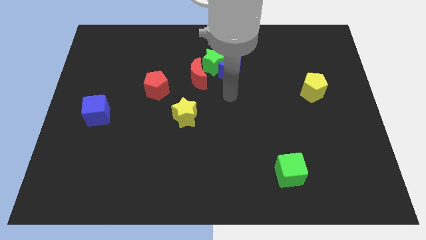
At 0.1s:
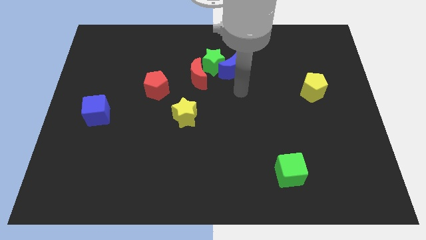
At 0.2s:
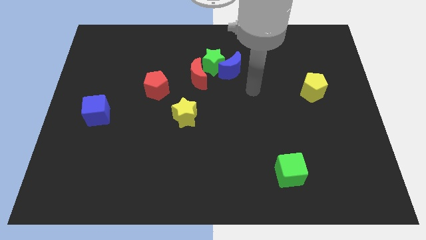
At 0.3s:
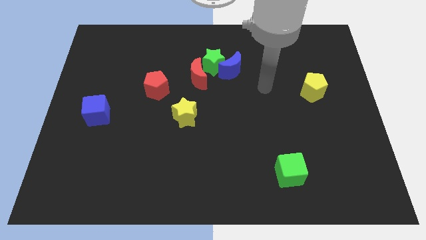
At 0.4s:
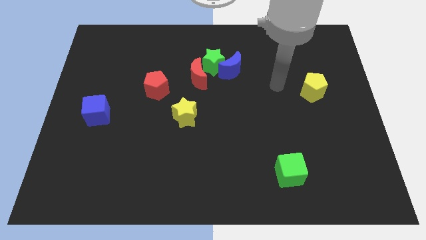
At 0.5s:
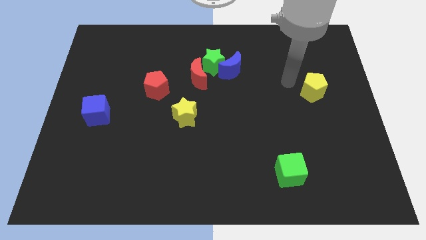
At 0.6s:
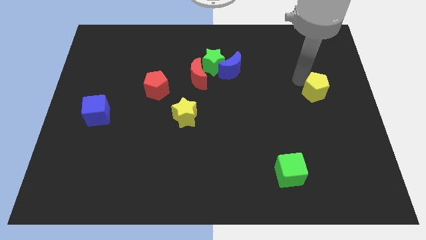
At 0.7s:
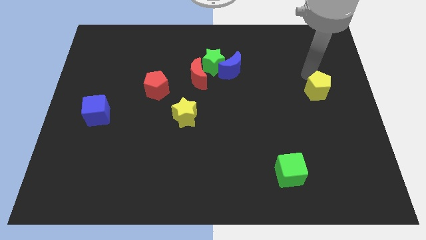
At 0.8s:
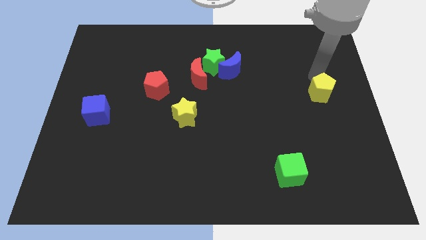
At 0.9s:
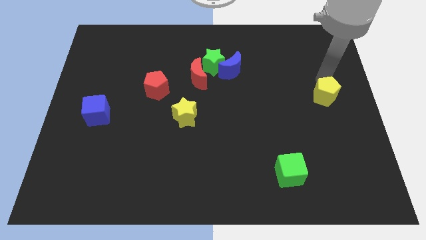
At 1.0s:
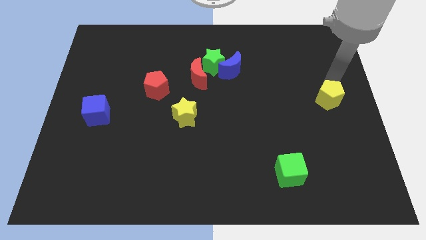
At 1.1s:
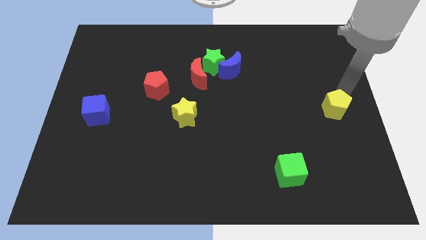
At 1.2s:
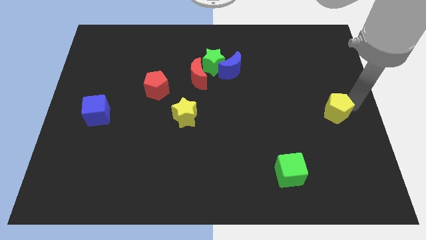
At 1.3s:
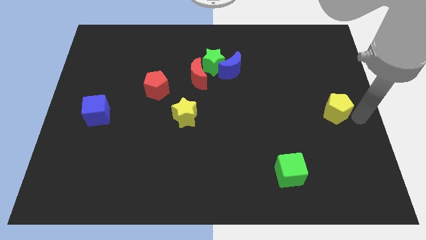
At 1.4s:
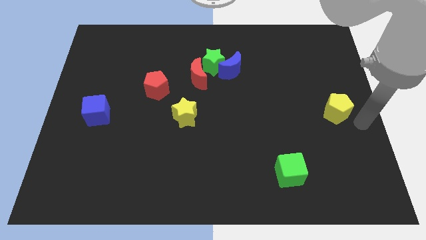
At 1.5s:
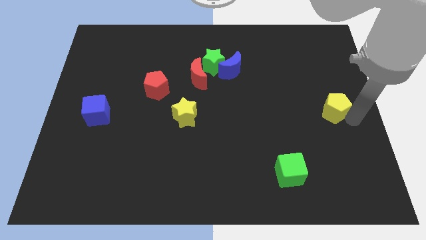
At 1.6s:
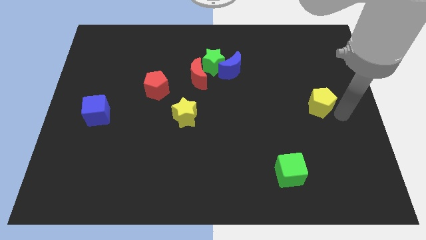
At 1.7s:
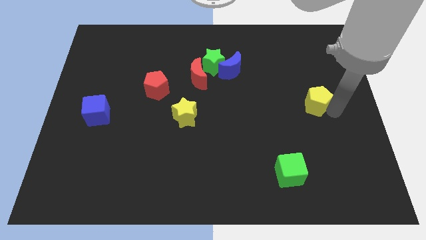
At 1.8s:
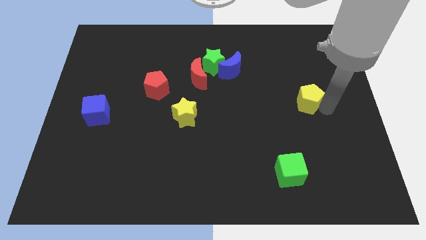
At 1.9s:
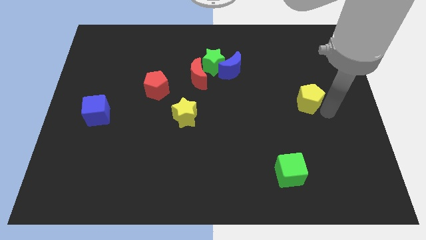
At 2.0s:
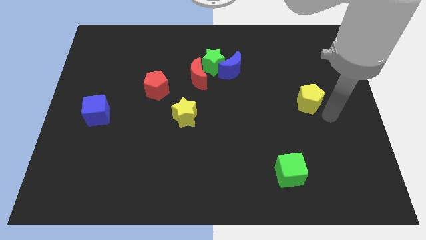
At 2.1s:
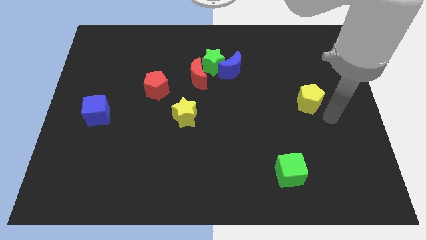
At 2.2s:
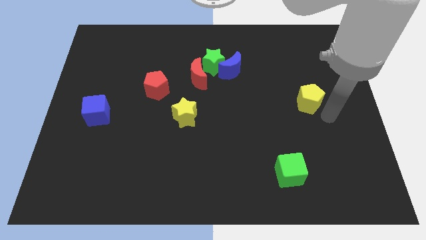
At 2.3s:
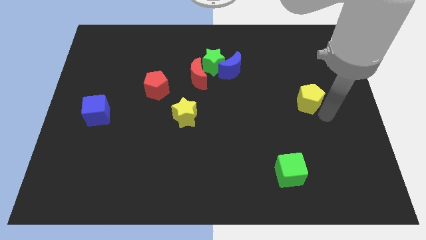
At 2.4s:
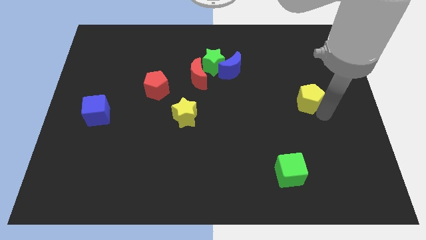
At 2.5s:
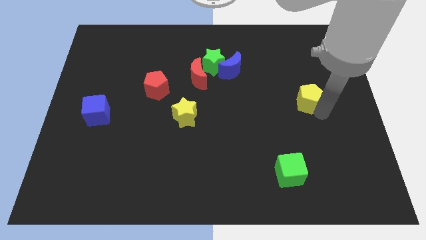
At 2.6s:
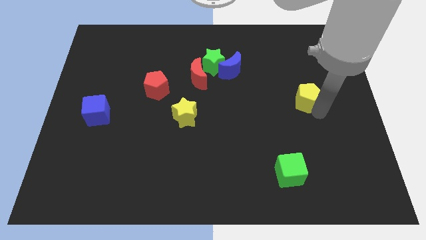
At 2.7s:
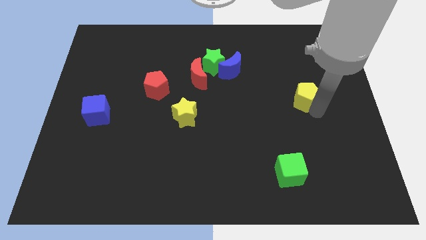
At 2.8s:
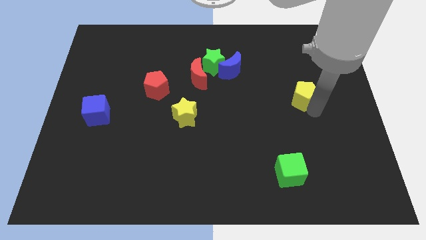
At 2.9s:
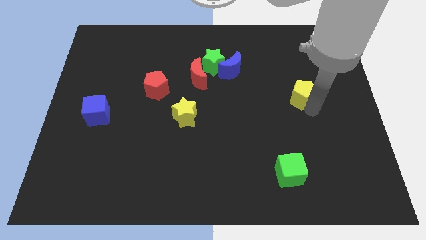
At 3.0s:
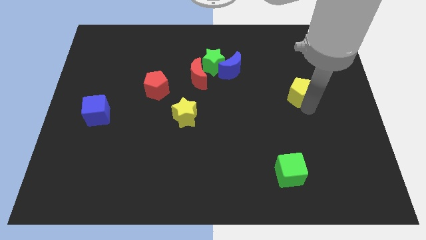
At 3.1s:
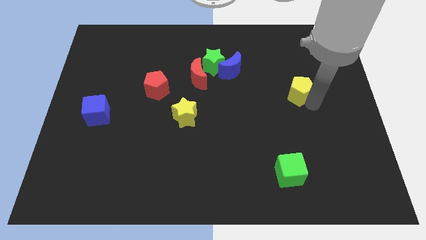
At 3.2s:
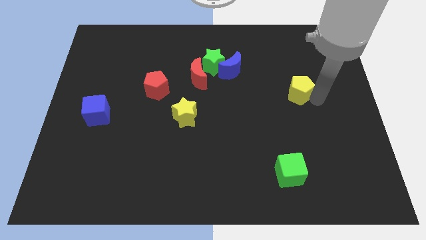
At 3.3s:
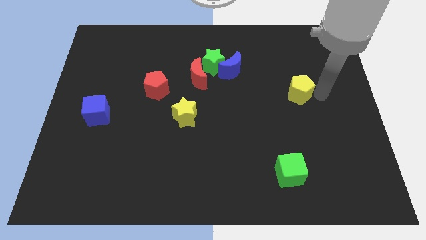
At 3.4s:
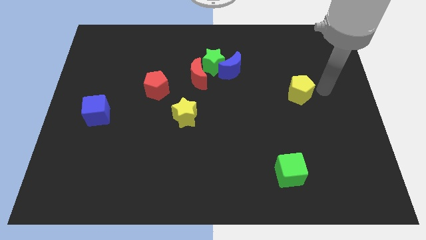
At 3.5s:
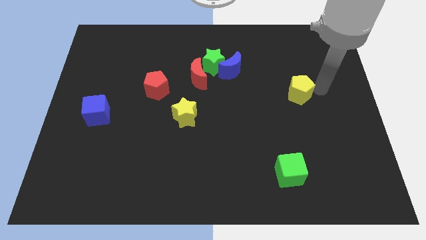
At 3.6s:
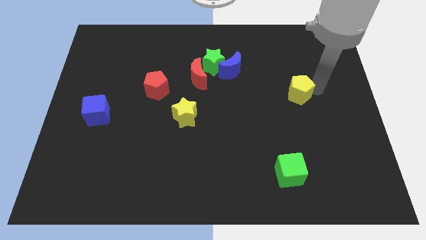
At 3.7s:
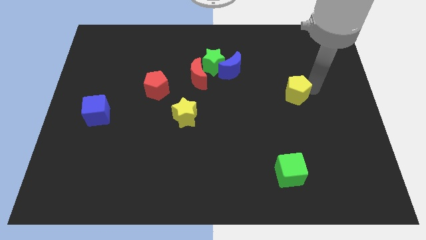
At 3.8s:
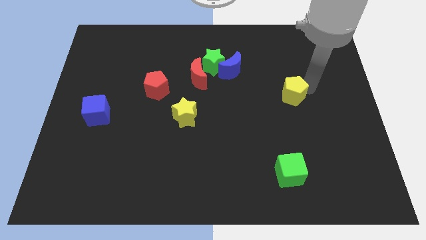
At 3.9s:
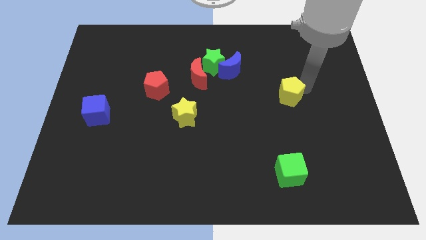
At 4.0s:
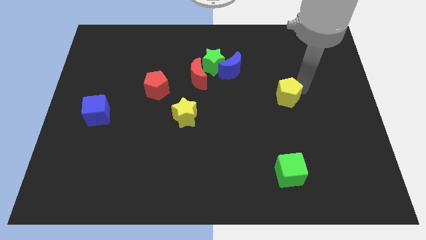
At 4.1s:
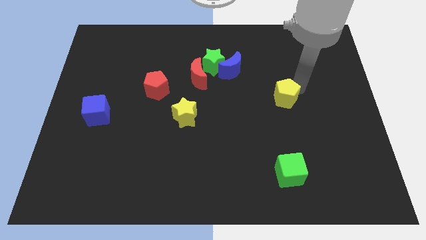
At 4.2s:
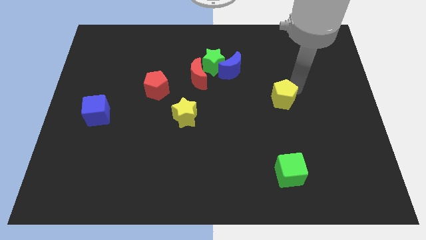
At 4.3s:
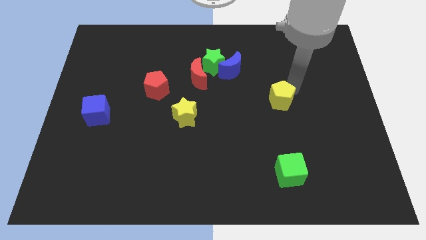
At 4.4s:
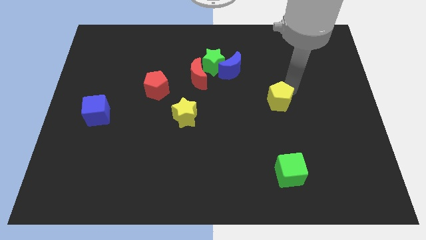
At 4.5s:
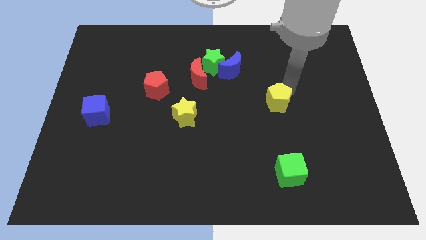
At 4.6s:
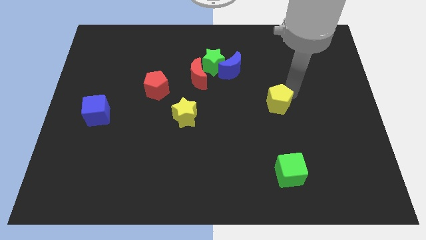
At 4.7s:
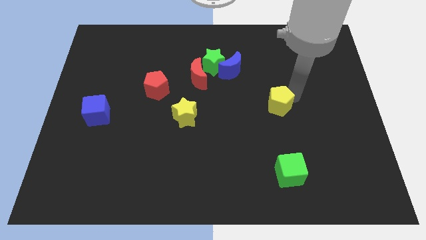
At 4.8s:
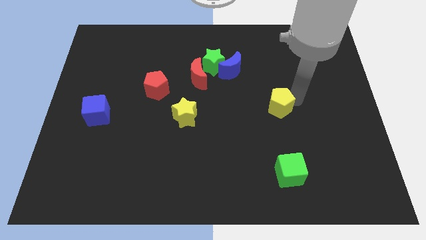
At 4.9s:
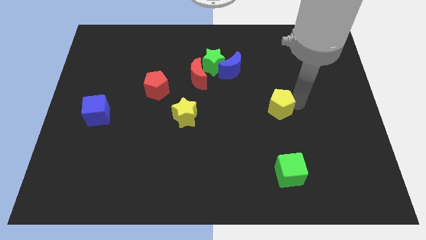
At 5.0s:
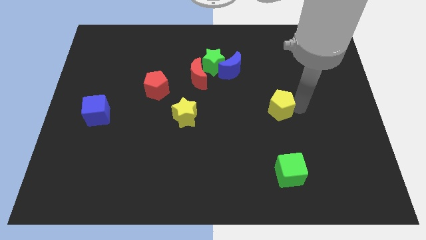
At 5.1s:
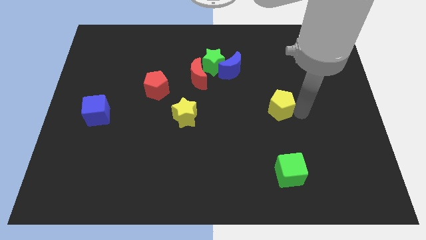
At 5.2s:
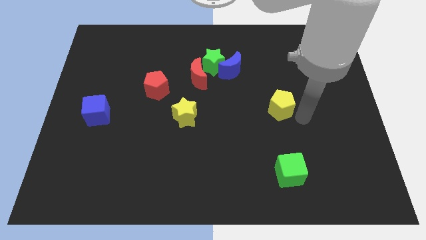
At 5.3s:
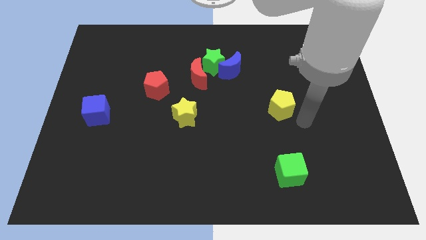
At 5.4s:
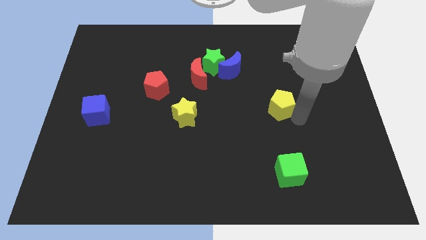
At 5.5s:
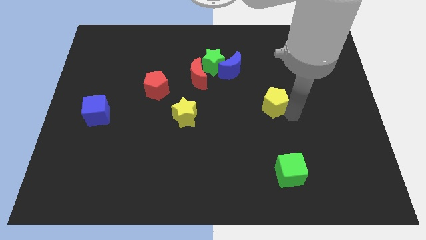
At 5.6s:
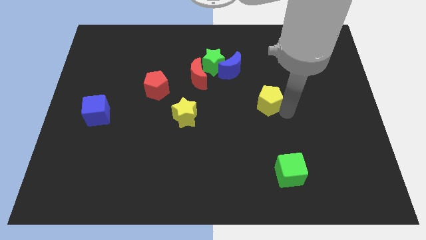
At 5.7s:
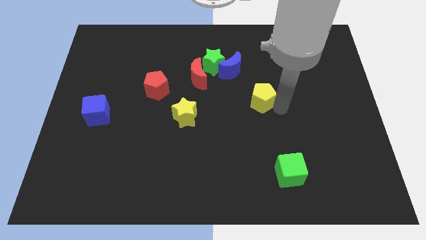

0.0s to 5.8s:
move the yellow pentagon to the center of the board

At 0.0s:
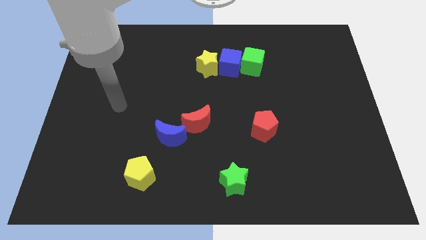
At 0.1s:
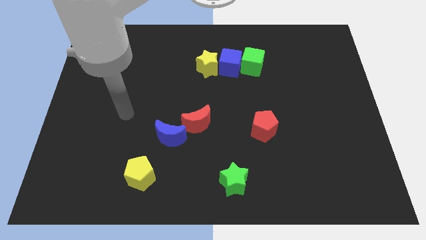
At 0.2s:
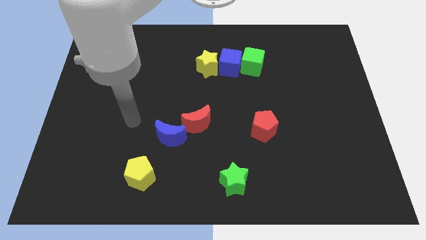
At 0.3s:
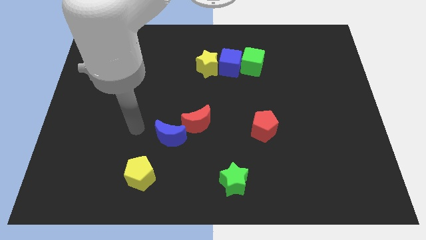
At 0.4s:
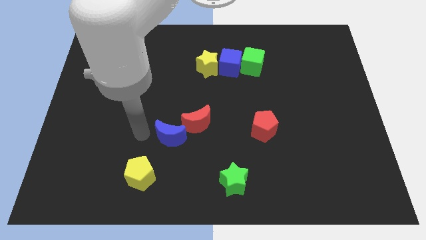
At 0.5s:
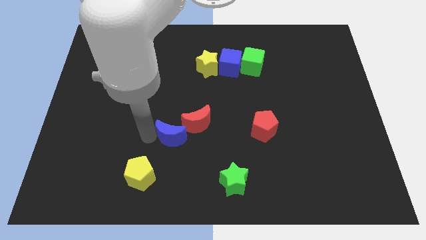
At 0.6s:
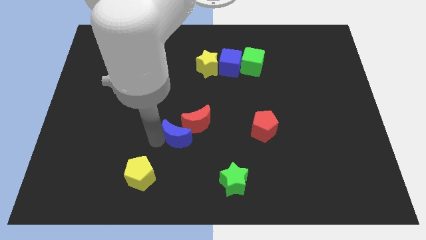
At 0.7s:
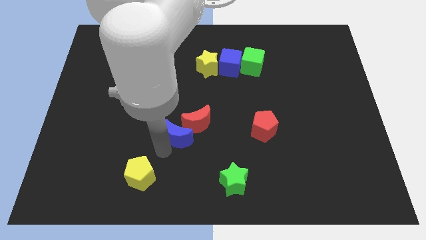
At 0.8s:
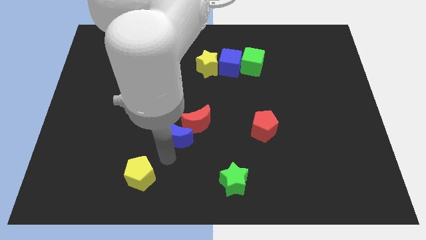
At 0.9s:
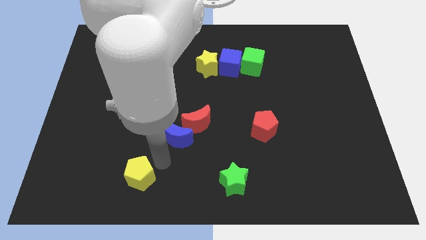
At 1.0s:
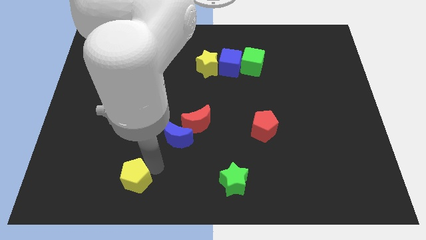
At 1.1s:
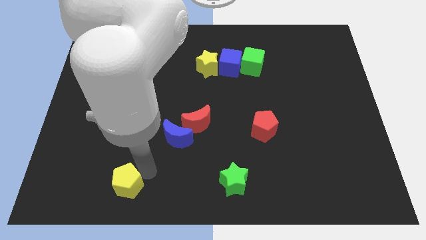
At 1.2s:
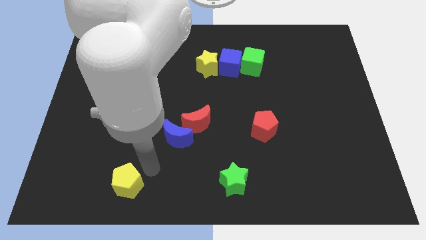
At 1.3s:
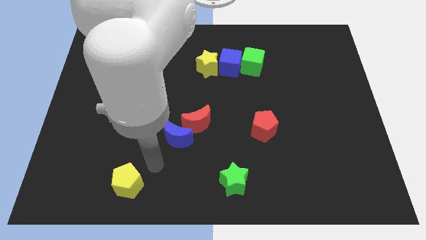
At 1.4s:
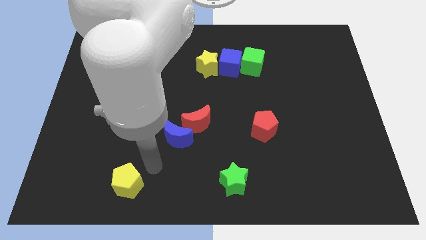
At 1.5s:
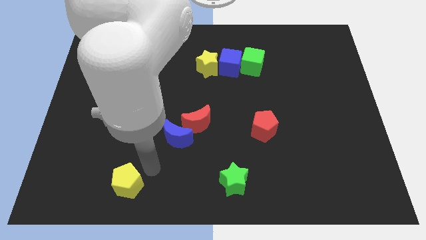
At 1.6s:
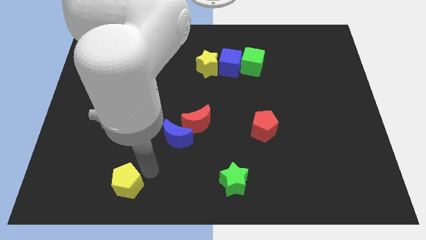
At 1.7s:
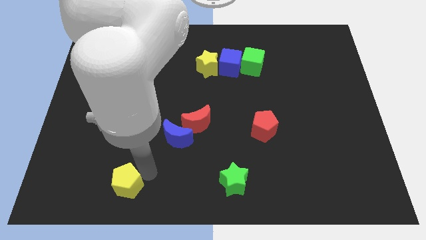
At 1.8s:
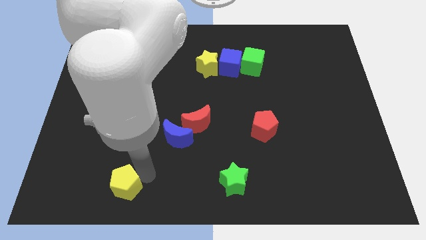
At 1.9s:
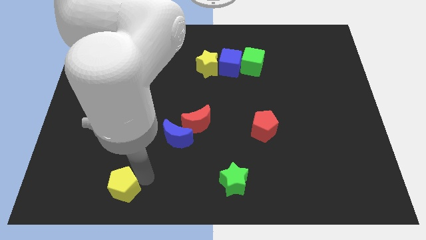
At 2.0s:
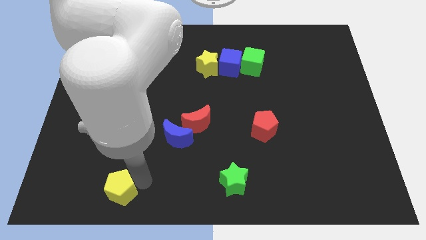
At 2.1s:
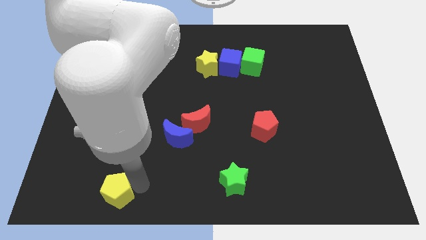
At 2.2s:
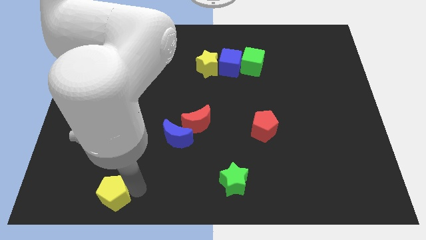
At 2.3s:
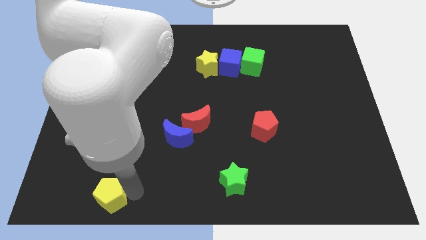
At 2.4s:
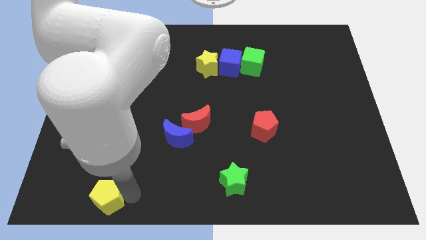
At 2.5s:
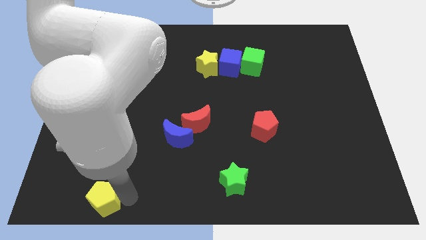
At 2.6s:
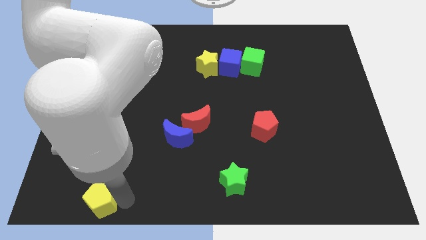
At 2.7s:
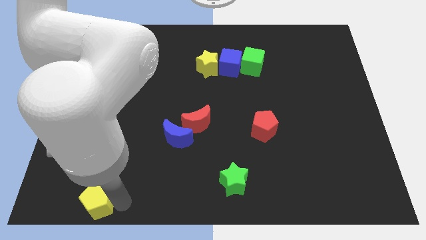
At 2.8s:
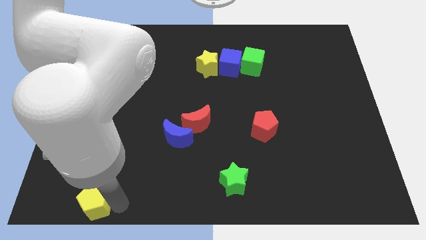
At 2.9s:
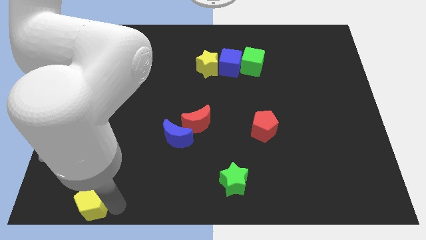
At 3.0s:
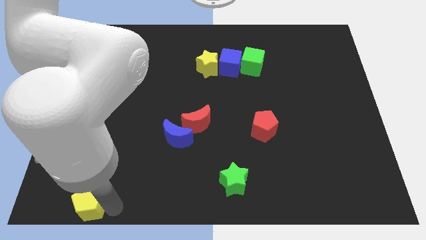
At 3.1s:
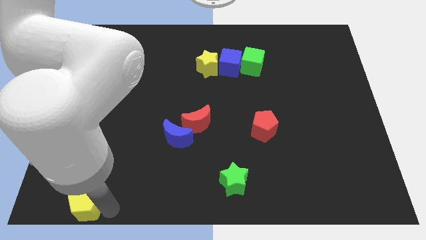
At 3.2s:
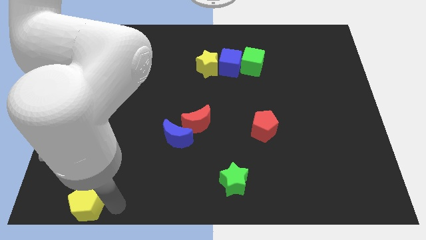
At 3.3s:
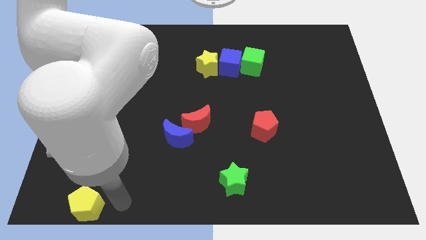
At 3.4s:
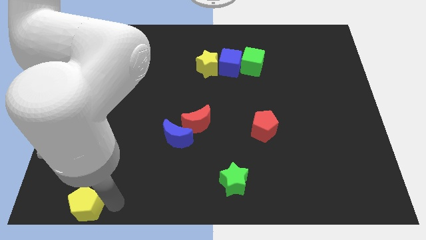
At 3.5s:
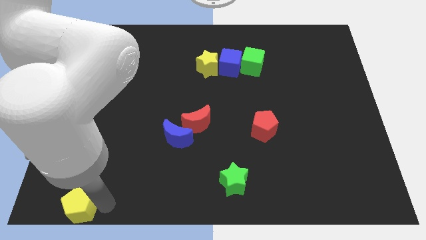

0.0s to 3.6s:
put the yellow pentagon to the bottom left of the board
